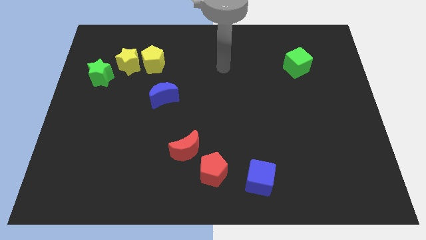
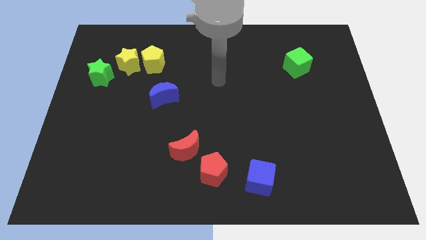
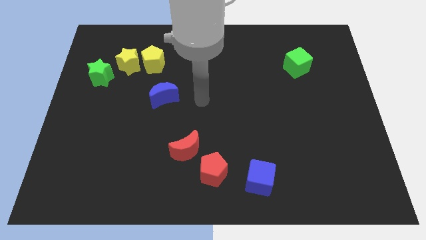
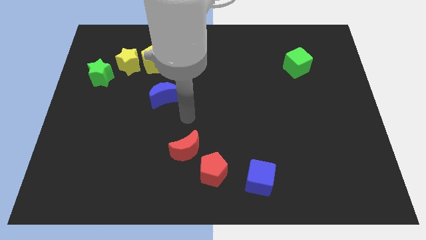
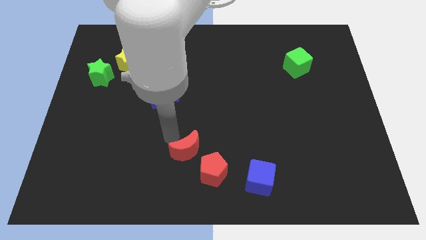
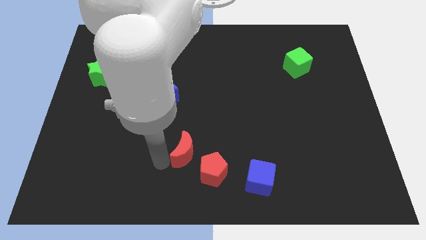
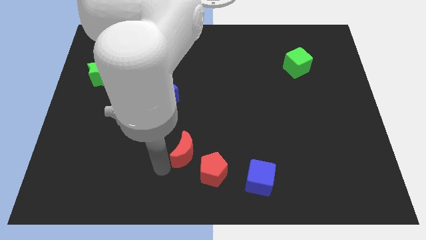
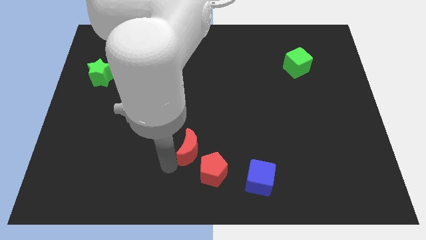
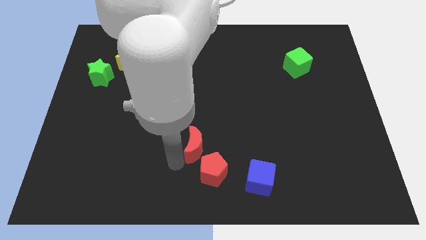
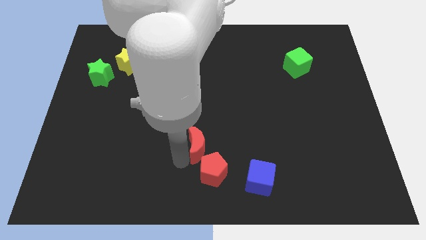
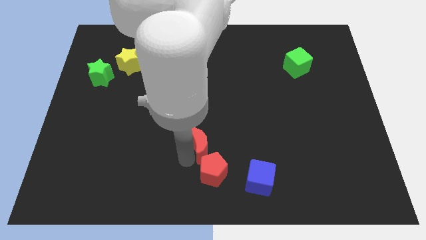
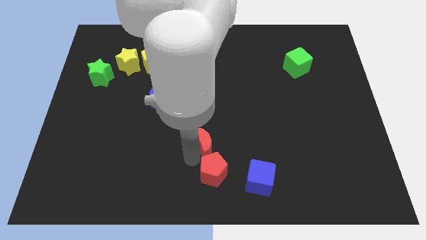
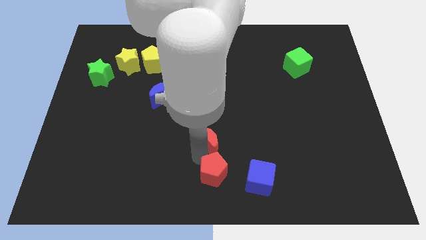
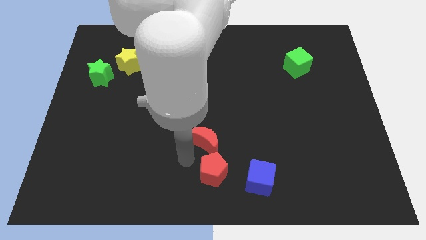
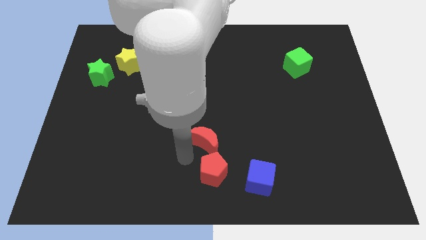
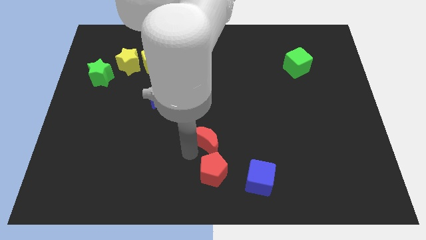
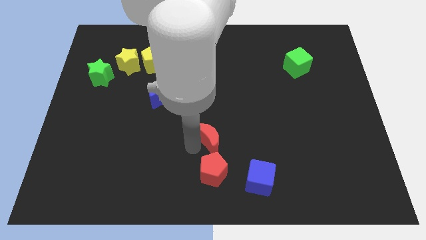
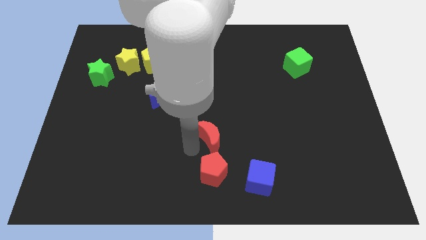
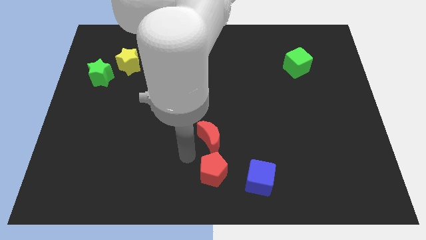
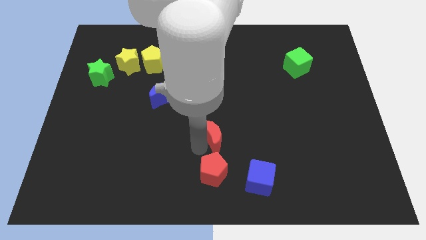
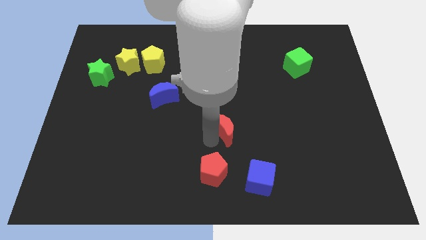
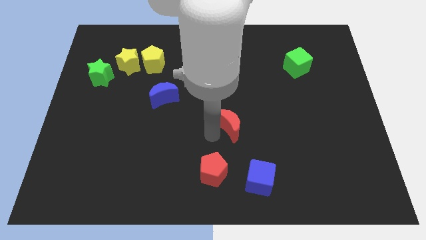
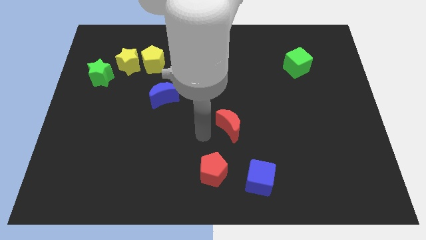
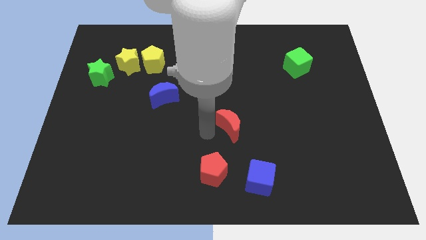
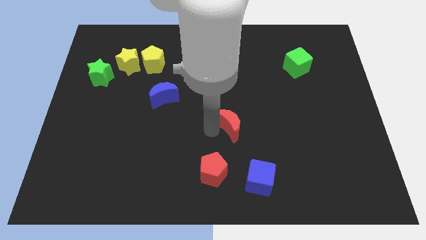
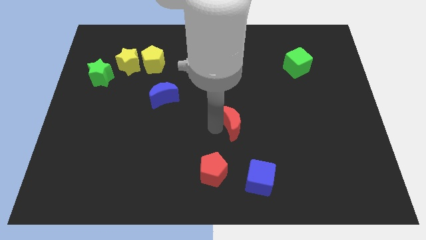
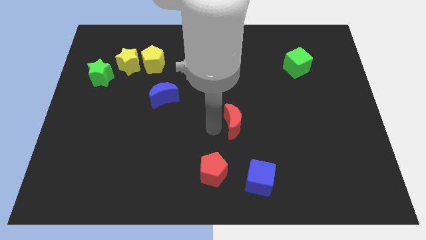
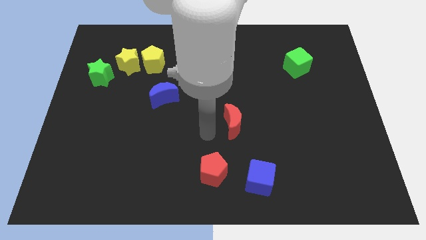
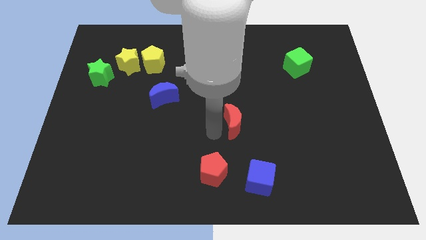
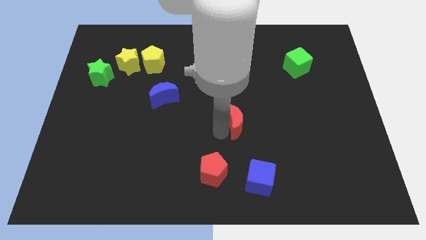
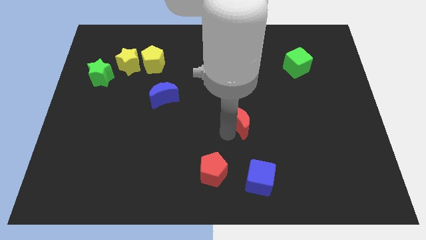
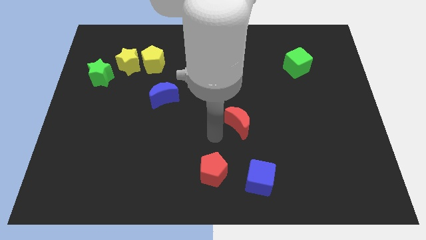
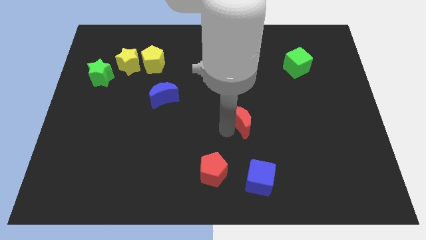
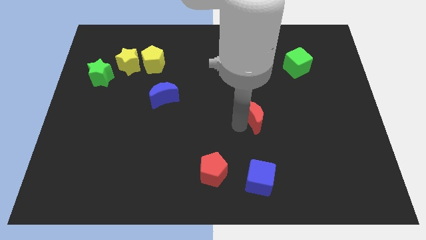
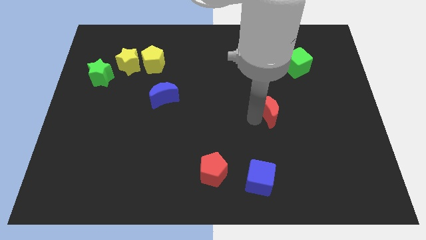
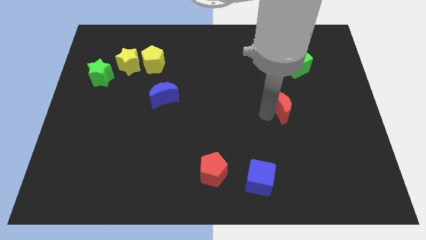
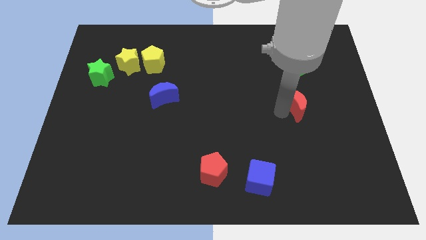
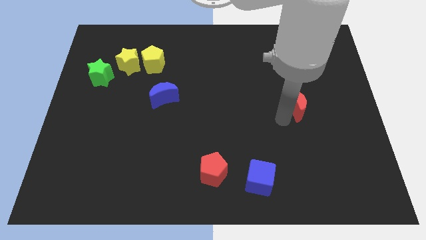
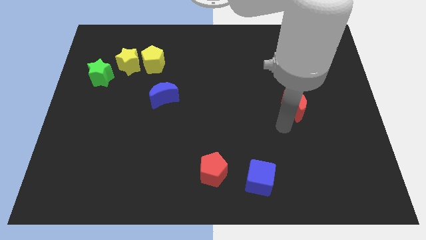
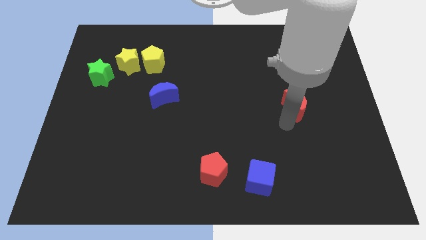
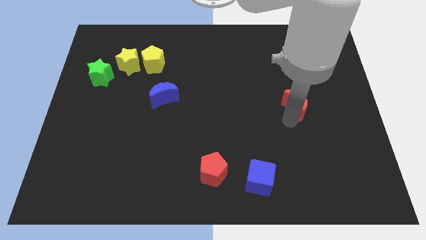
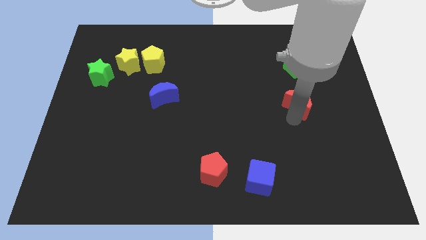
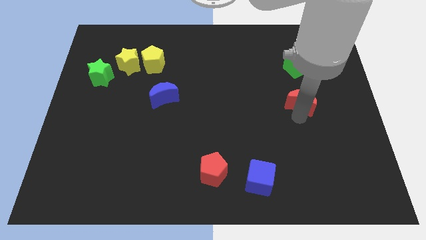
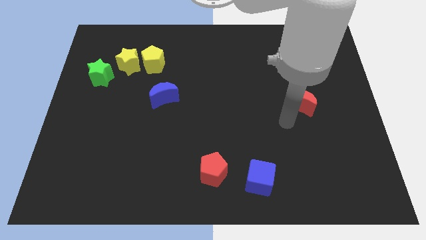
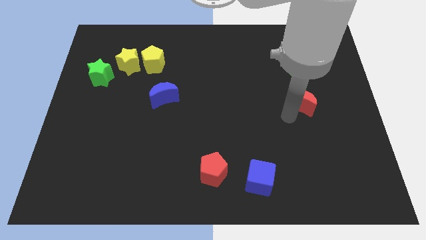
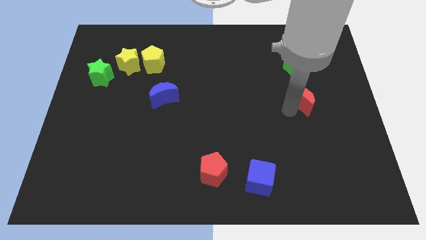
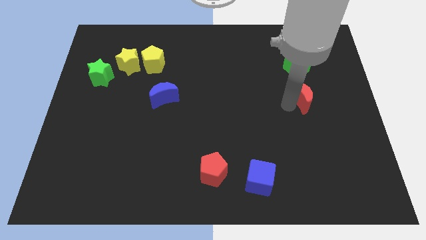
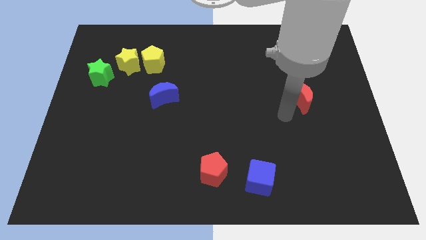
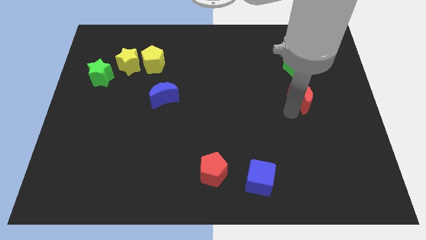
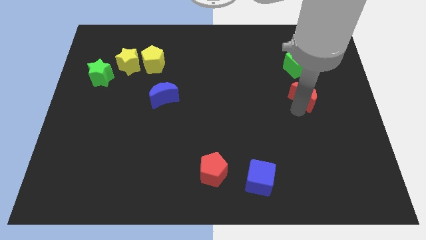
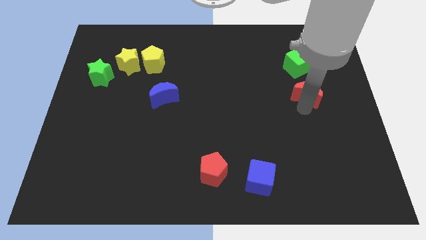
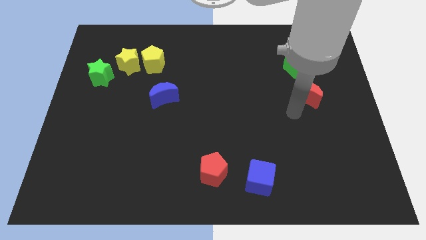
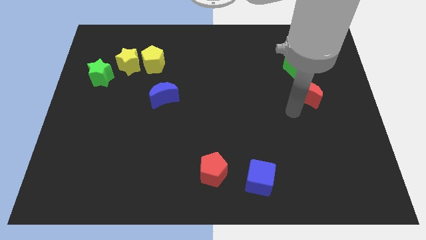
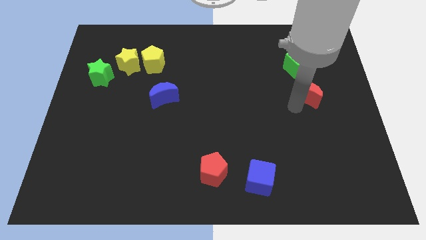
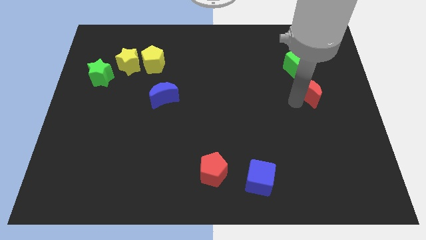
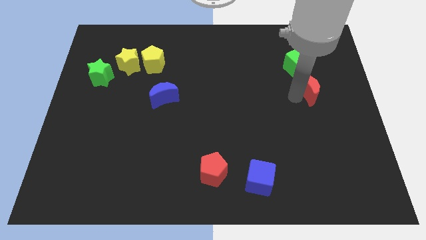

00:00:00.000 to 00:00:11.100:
move the red moon to the bottom right side of the green cube

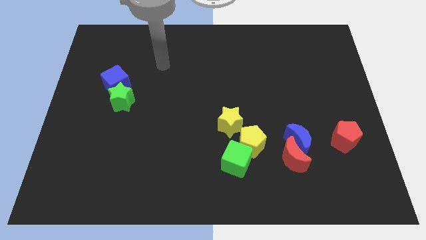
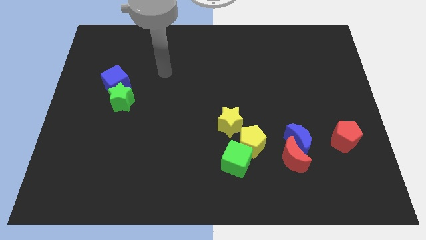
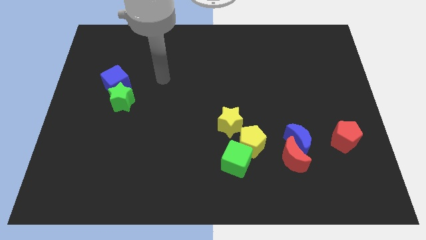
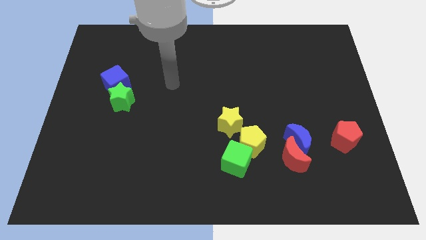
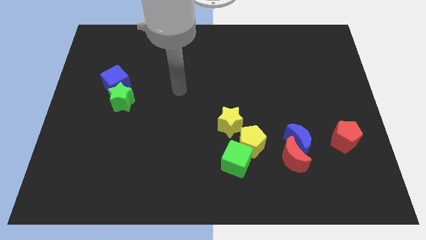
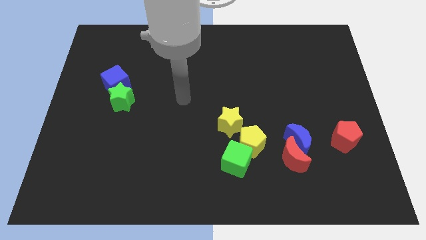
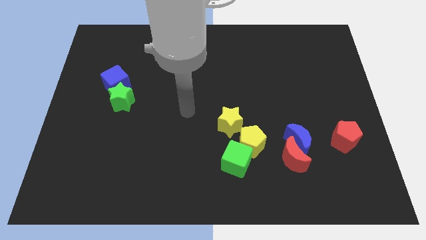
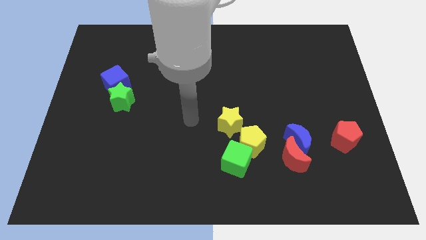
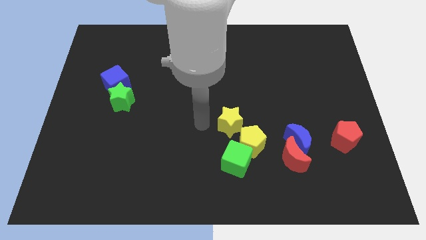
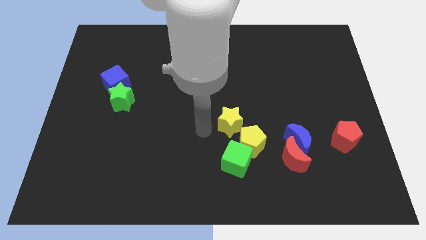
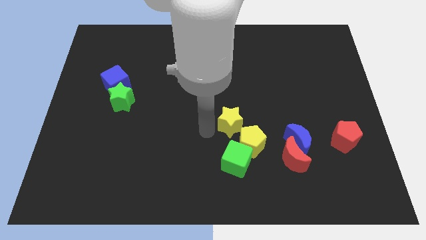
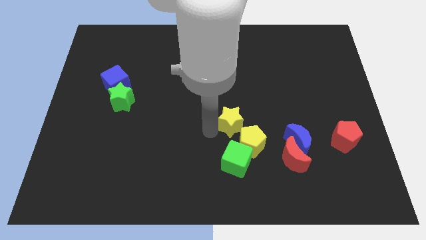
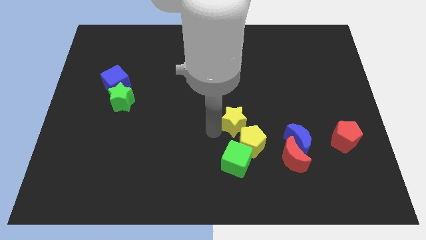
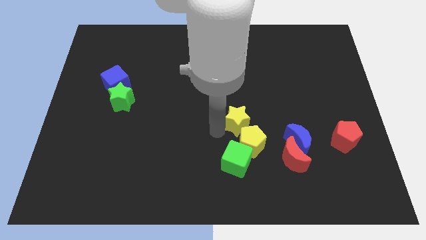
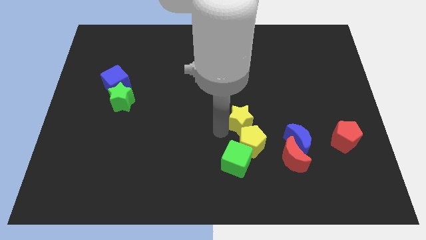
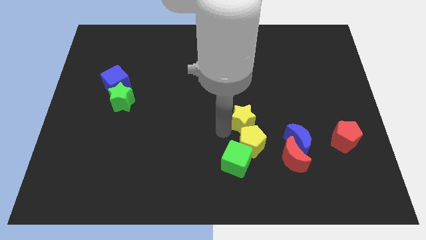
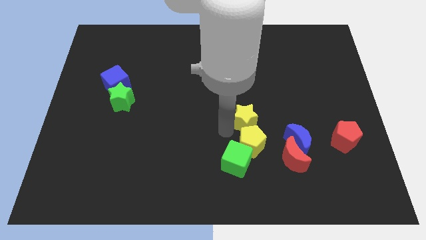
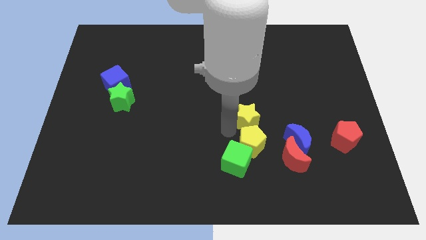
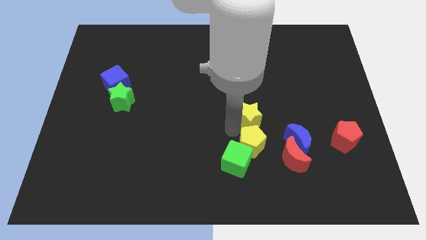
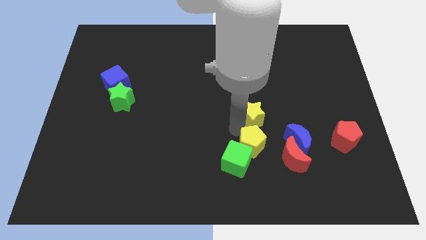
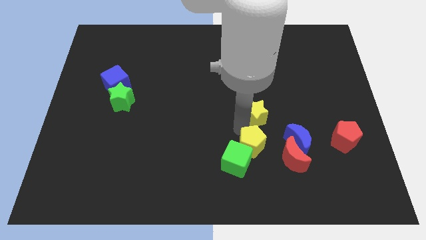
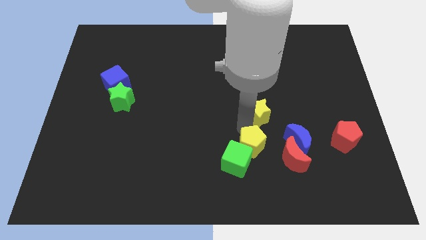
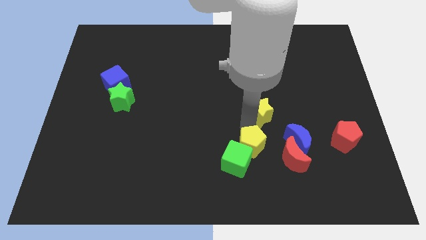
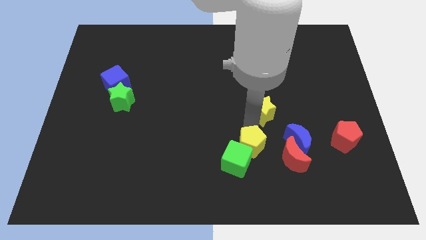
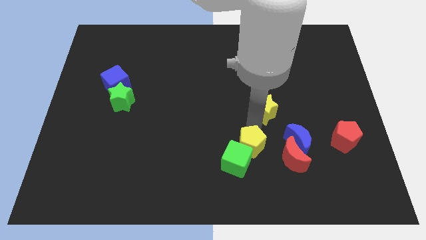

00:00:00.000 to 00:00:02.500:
put the yellow star to the top of the red moon
